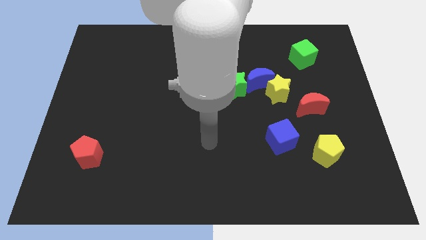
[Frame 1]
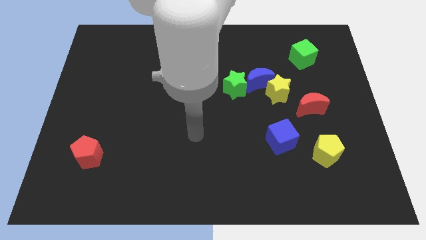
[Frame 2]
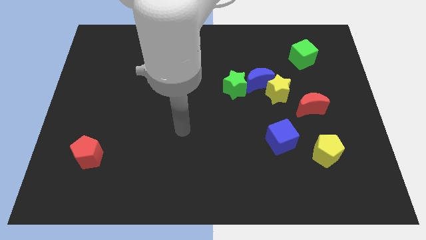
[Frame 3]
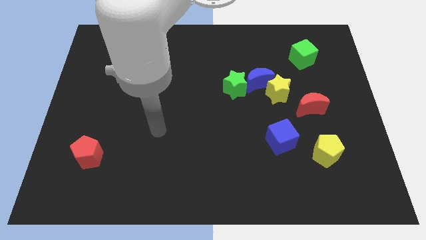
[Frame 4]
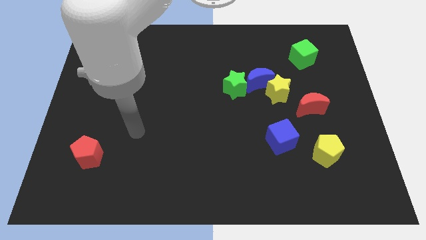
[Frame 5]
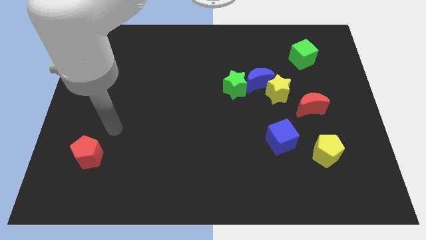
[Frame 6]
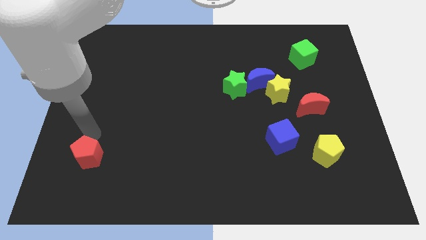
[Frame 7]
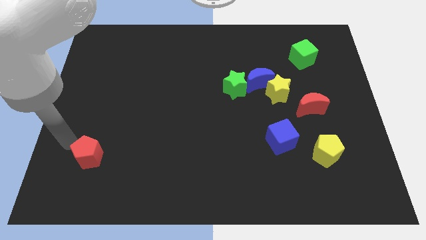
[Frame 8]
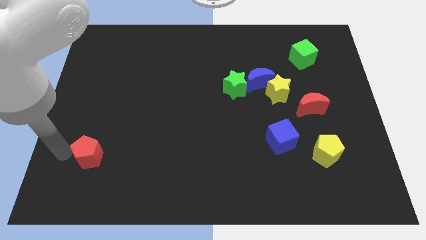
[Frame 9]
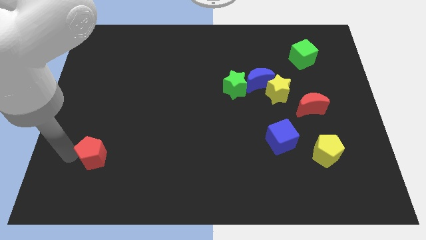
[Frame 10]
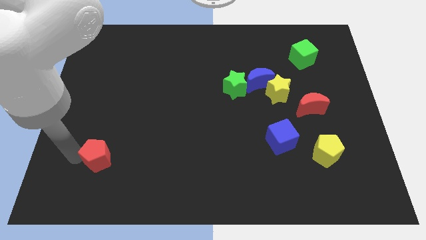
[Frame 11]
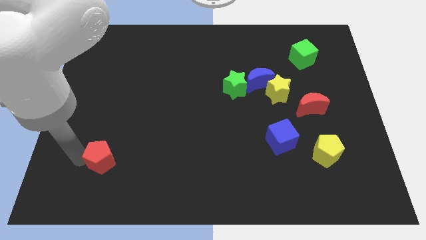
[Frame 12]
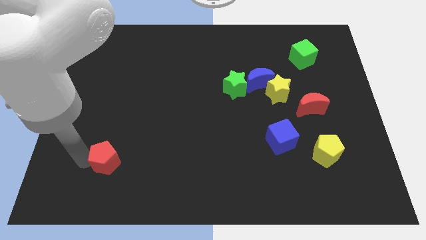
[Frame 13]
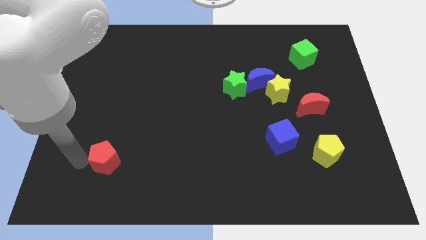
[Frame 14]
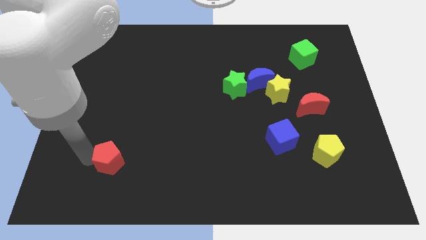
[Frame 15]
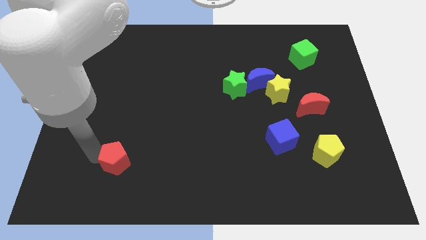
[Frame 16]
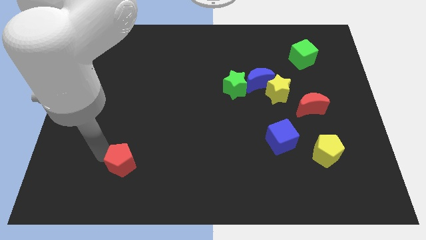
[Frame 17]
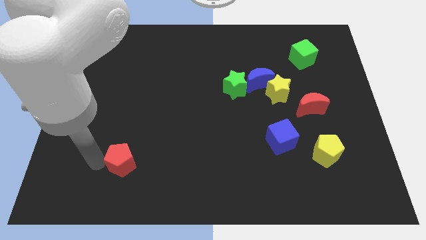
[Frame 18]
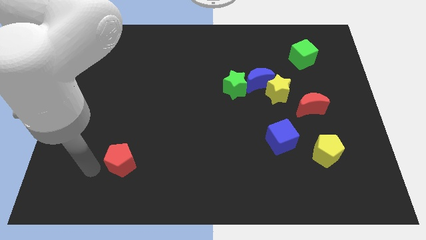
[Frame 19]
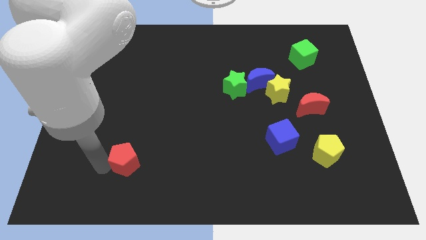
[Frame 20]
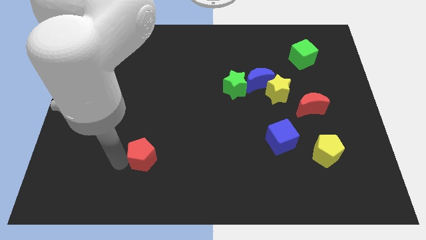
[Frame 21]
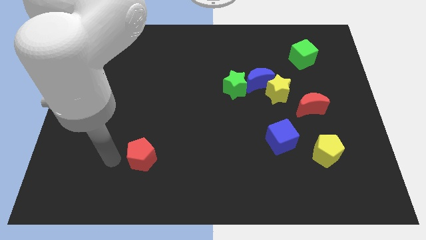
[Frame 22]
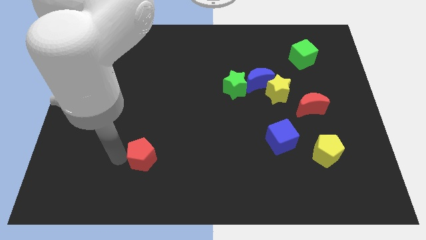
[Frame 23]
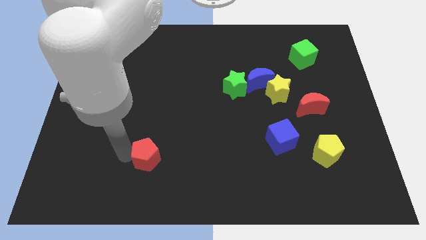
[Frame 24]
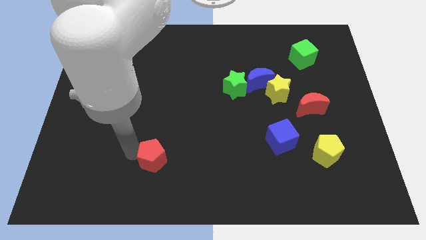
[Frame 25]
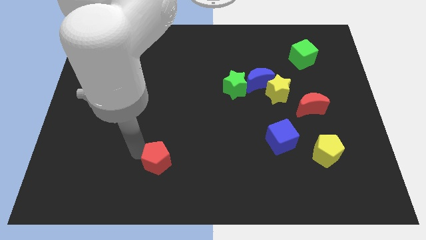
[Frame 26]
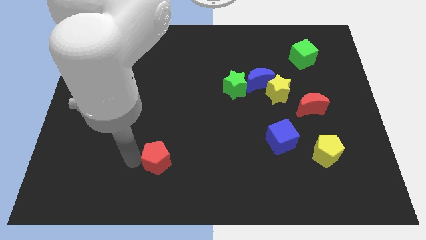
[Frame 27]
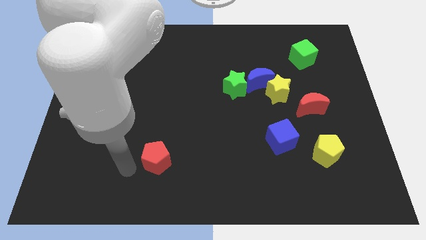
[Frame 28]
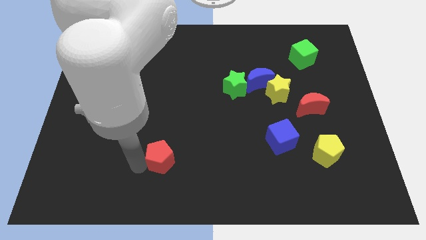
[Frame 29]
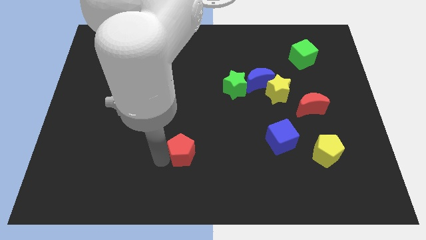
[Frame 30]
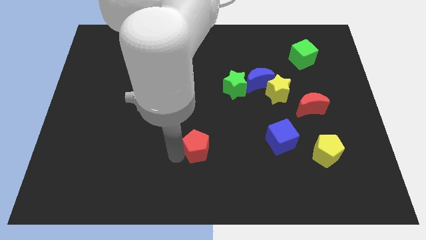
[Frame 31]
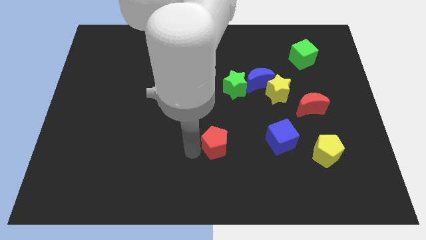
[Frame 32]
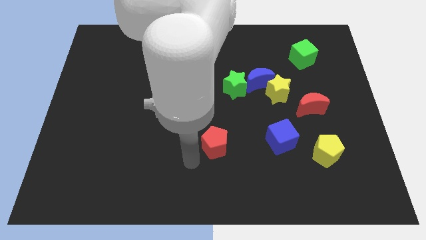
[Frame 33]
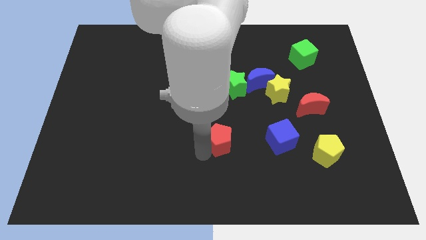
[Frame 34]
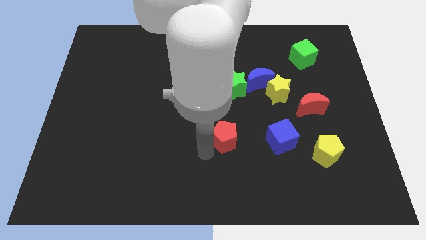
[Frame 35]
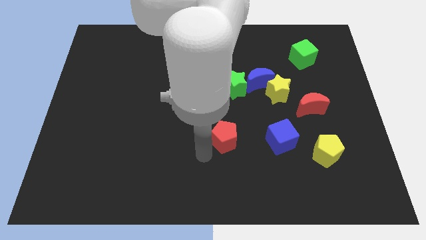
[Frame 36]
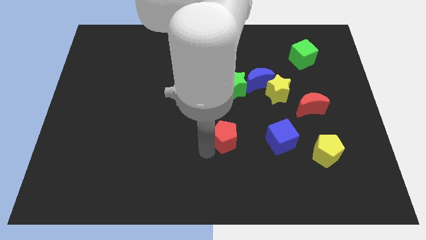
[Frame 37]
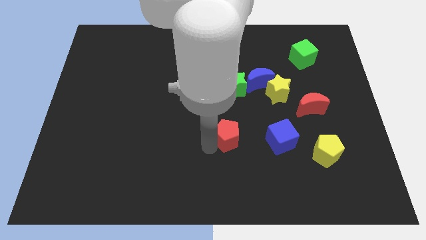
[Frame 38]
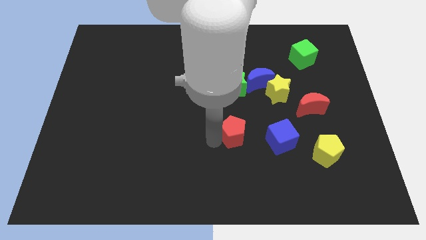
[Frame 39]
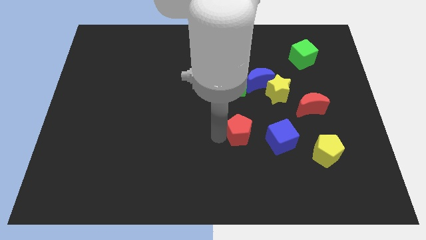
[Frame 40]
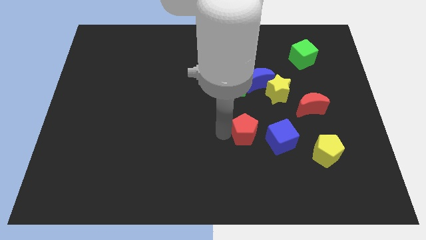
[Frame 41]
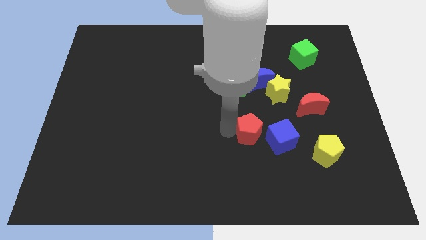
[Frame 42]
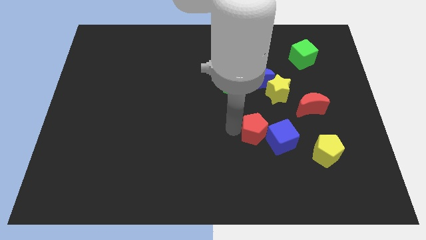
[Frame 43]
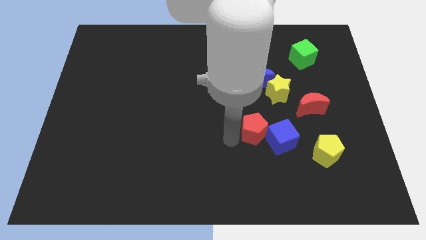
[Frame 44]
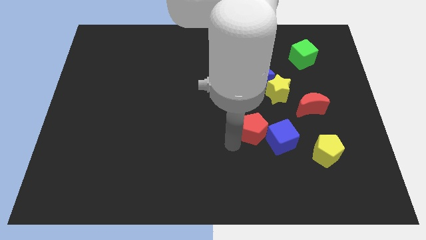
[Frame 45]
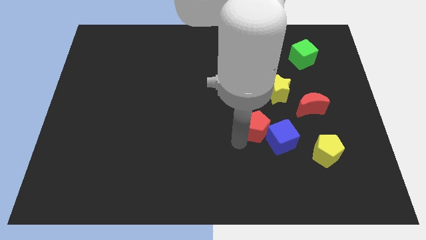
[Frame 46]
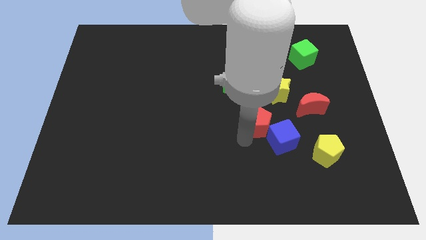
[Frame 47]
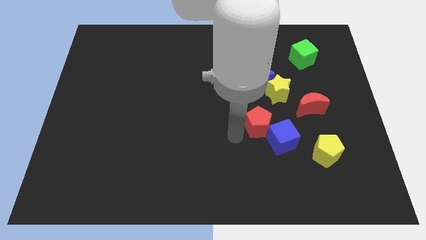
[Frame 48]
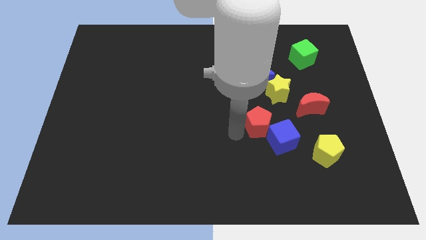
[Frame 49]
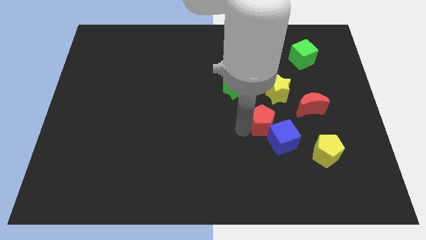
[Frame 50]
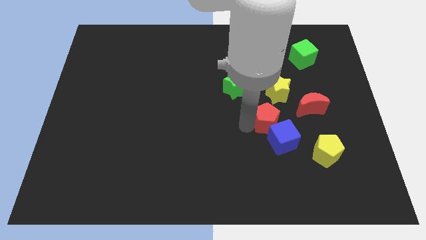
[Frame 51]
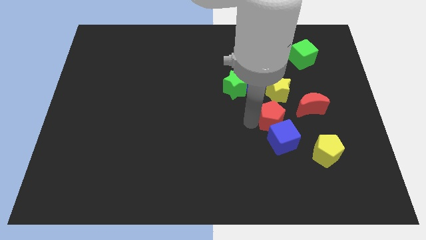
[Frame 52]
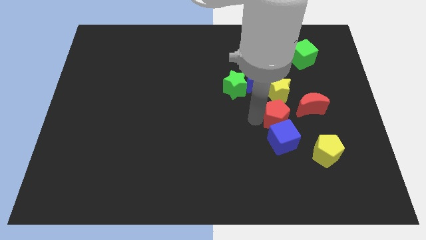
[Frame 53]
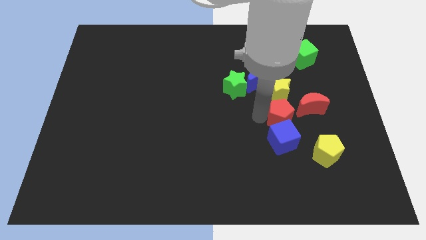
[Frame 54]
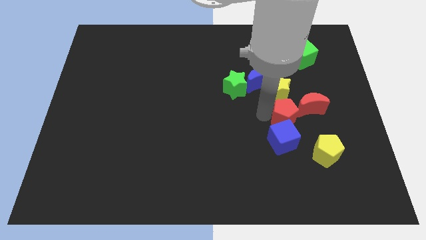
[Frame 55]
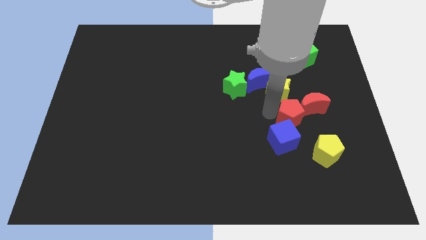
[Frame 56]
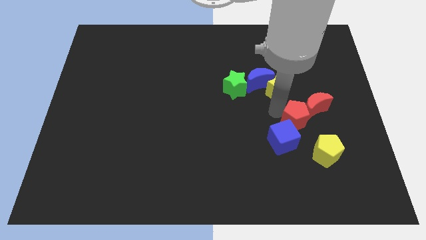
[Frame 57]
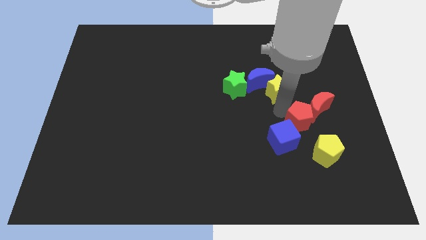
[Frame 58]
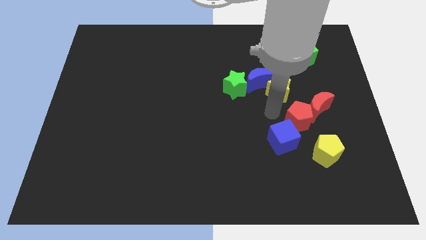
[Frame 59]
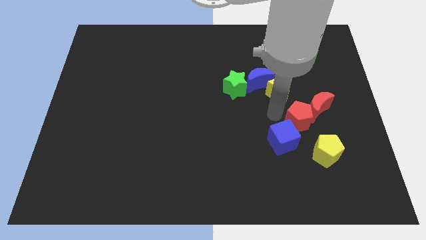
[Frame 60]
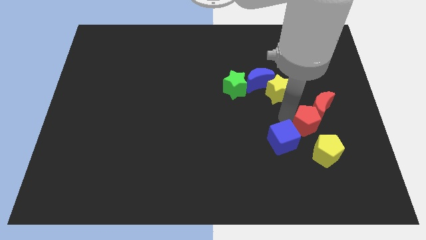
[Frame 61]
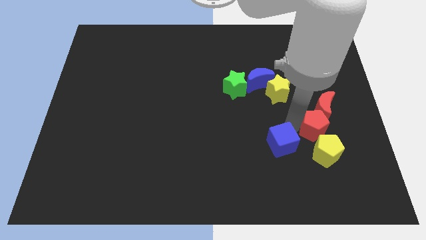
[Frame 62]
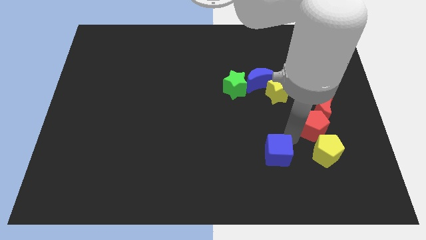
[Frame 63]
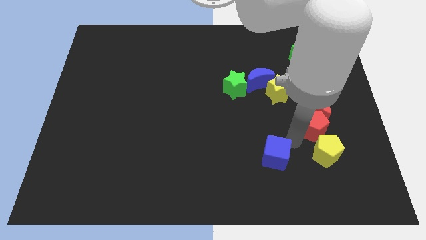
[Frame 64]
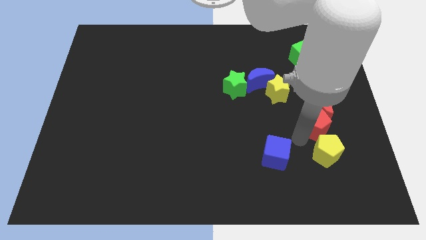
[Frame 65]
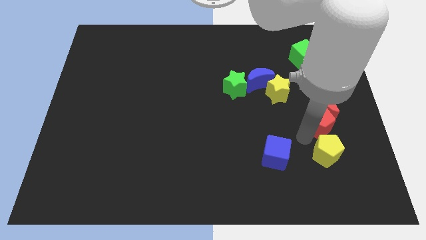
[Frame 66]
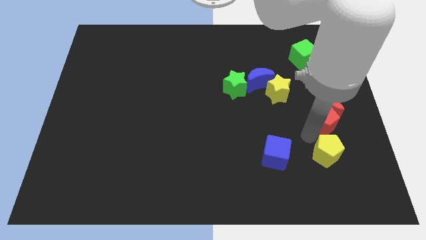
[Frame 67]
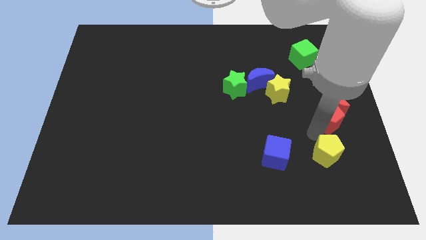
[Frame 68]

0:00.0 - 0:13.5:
push the red pentagon to the right side
